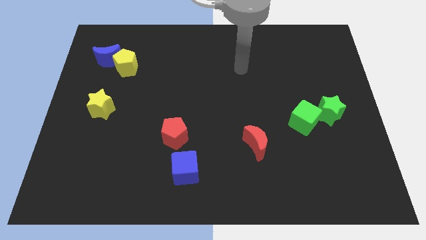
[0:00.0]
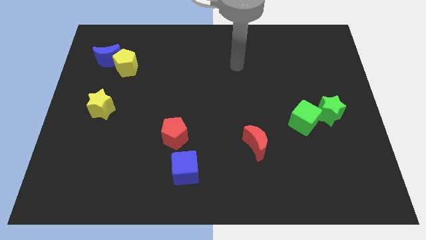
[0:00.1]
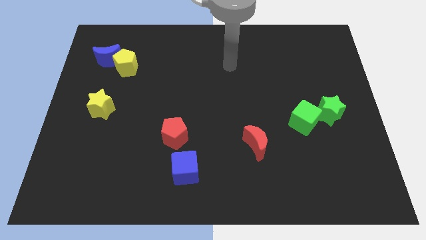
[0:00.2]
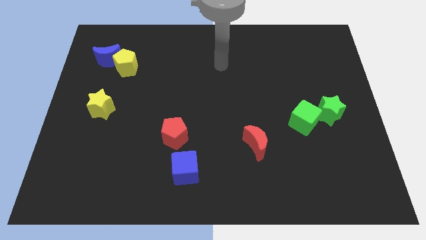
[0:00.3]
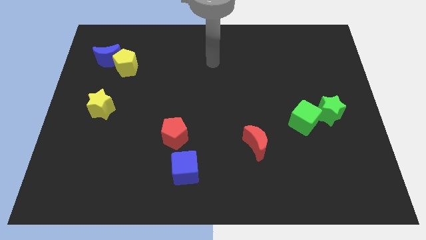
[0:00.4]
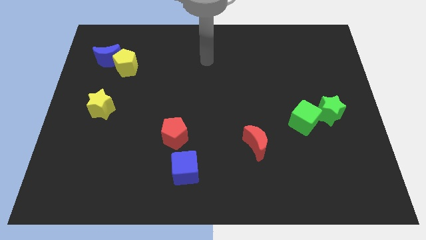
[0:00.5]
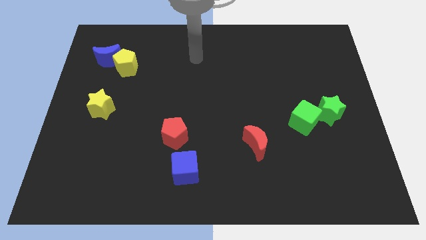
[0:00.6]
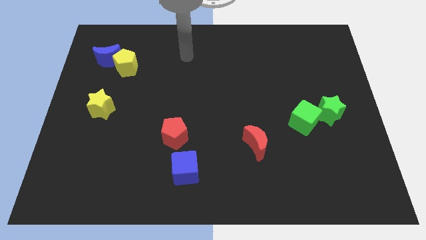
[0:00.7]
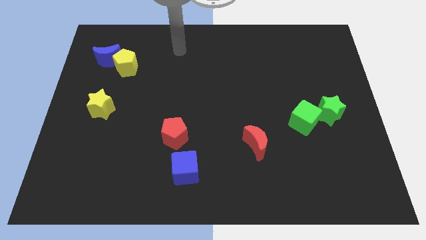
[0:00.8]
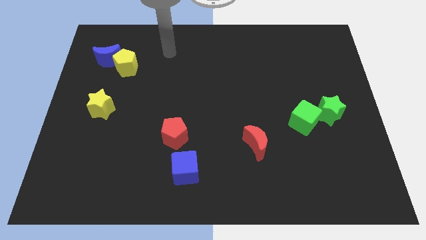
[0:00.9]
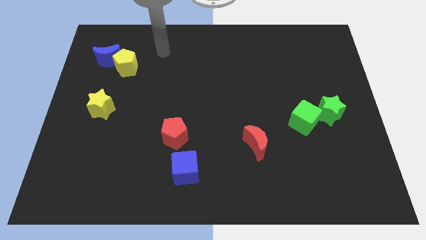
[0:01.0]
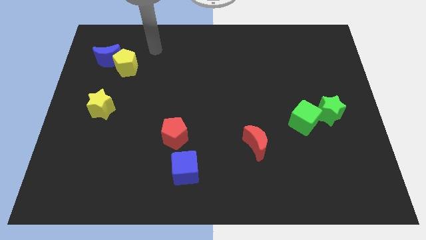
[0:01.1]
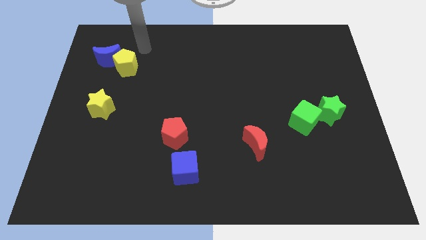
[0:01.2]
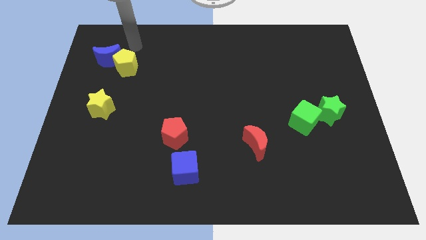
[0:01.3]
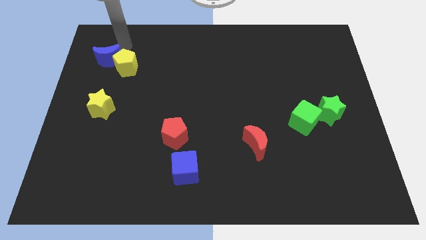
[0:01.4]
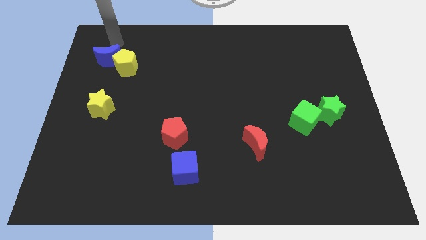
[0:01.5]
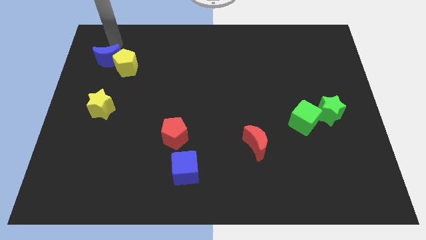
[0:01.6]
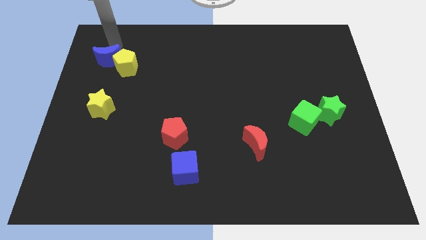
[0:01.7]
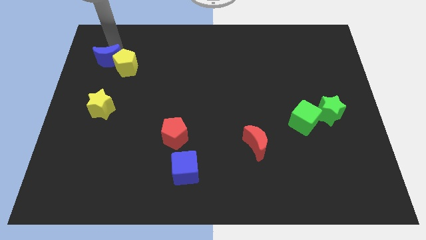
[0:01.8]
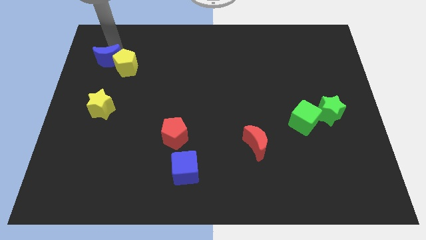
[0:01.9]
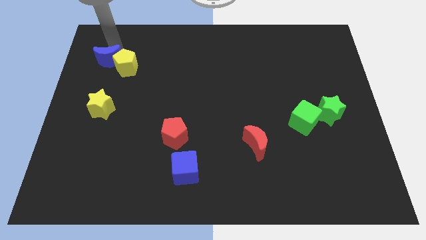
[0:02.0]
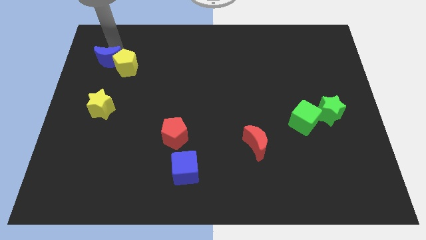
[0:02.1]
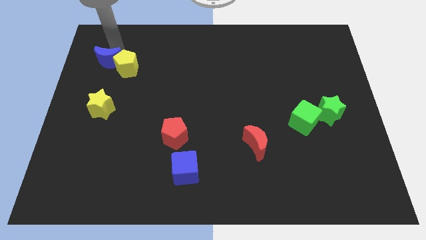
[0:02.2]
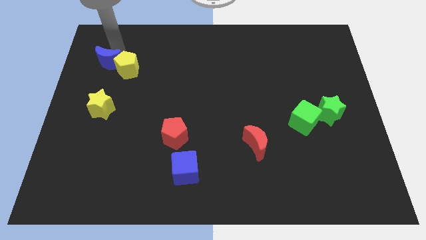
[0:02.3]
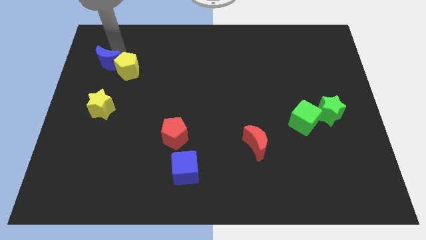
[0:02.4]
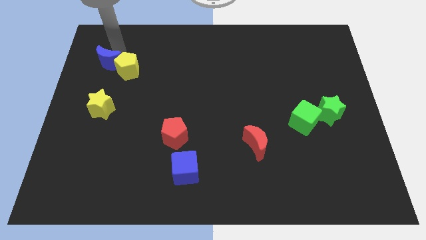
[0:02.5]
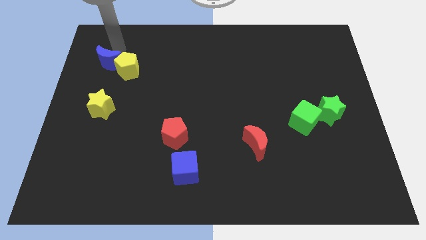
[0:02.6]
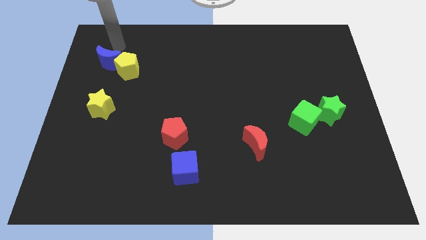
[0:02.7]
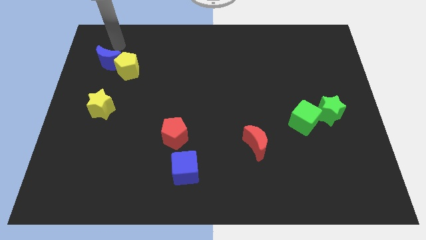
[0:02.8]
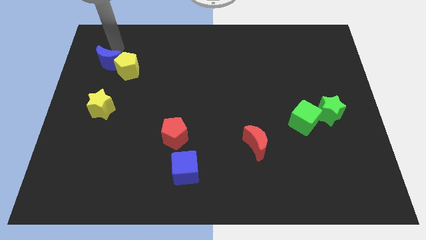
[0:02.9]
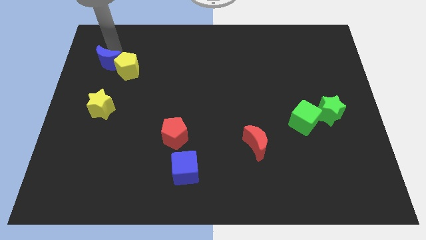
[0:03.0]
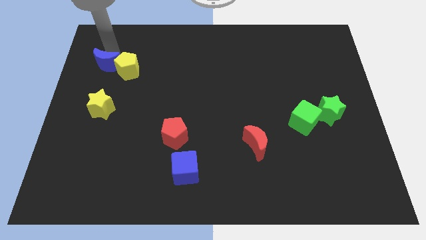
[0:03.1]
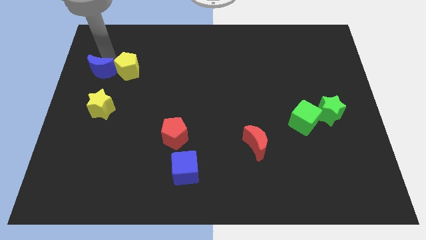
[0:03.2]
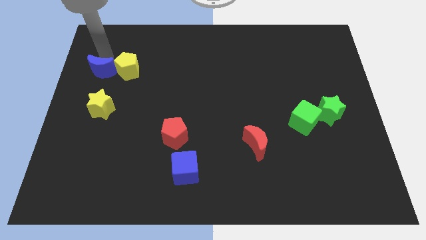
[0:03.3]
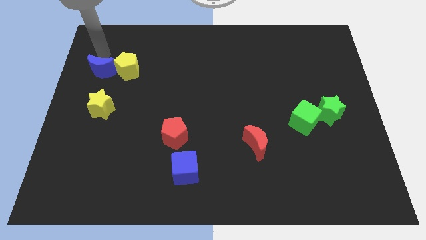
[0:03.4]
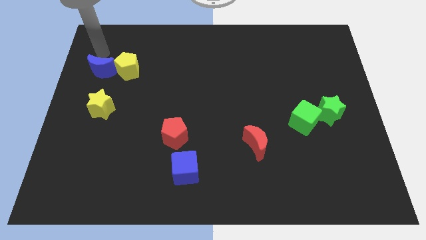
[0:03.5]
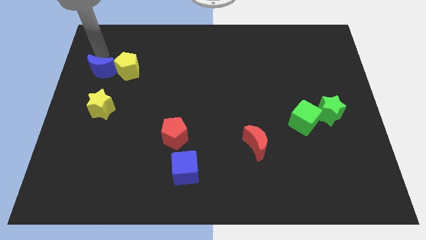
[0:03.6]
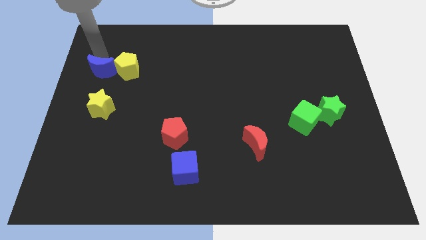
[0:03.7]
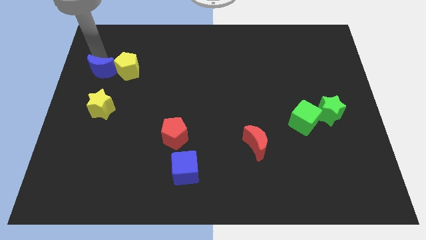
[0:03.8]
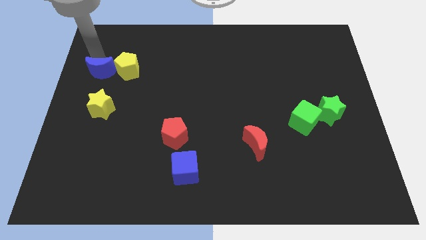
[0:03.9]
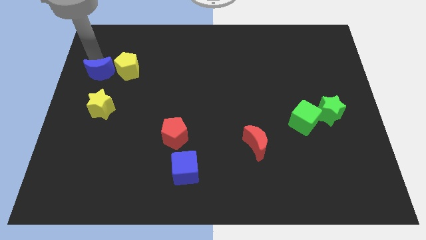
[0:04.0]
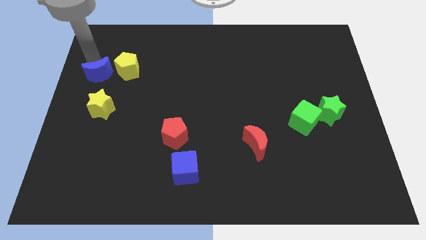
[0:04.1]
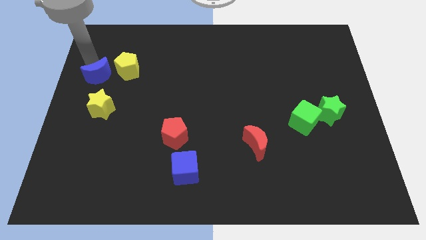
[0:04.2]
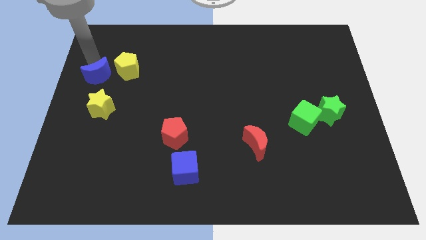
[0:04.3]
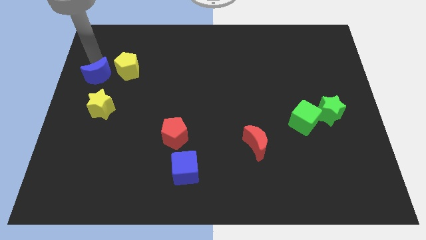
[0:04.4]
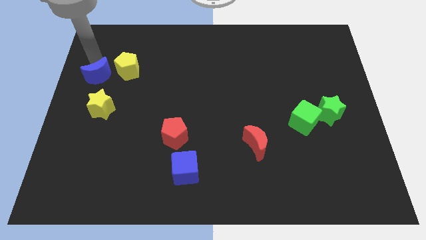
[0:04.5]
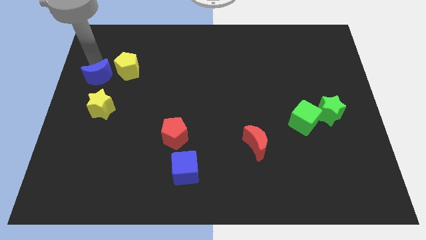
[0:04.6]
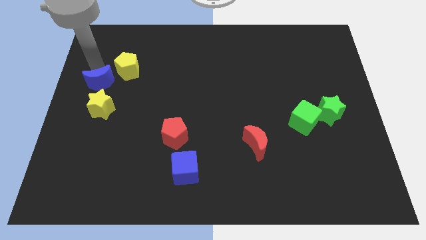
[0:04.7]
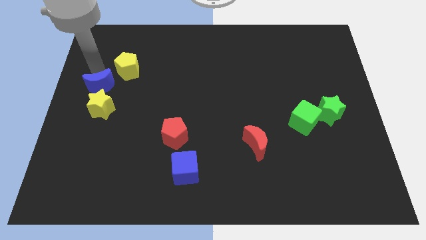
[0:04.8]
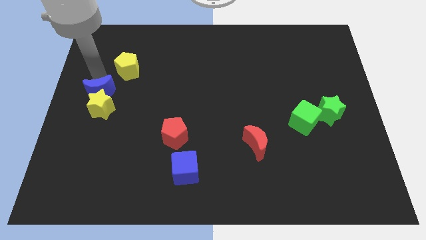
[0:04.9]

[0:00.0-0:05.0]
push the blue moon towards the yellow star

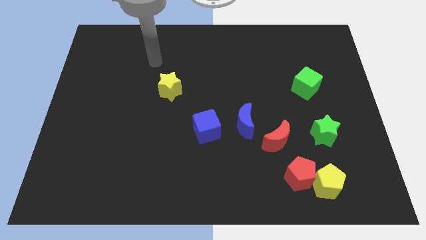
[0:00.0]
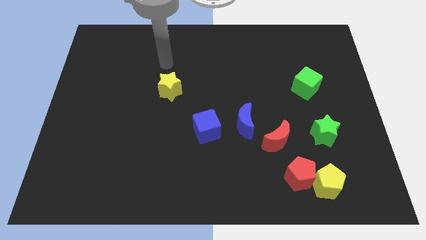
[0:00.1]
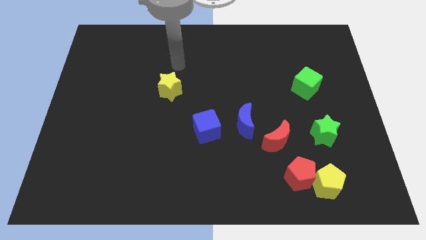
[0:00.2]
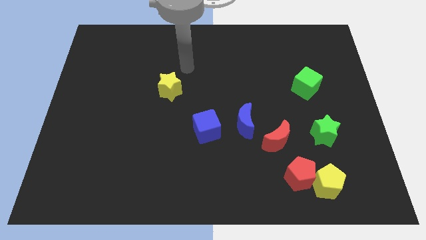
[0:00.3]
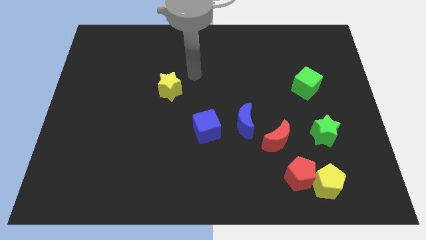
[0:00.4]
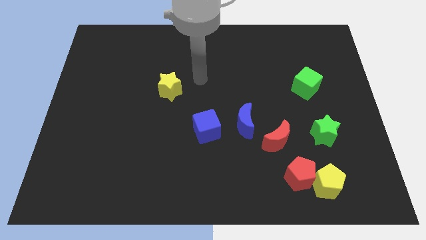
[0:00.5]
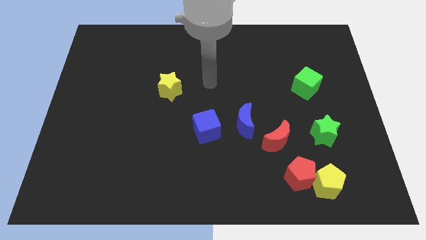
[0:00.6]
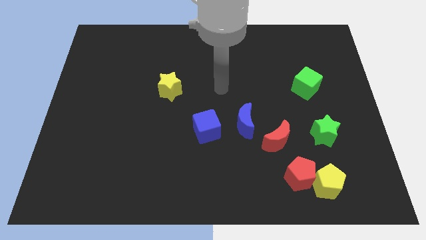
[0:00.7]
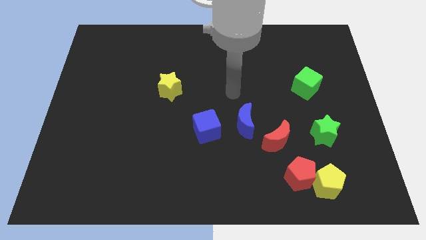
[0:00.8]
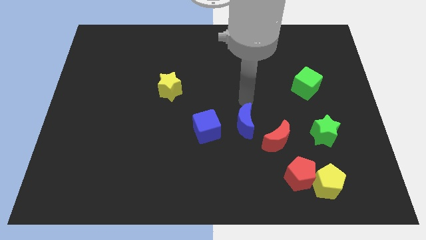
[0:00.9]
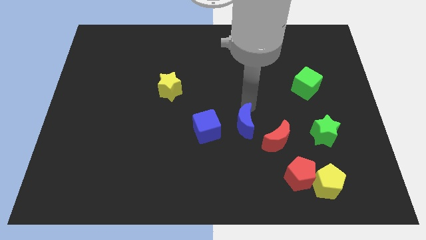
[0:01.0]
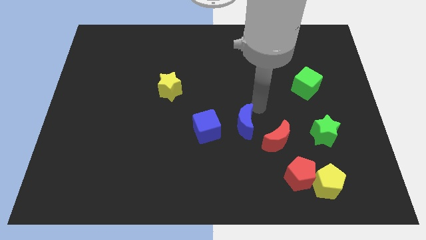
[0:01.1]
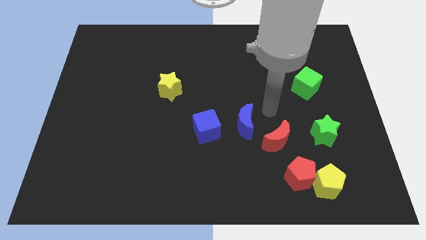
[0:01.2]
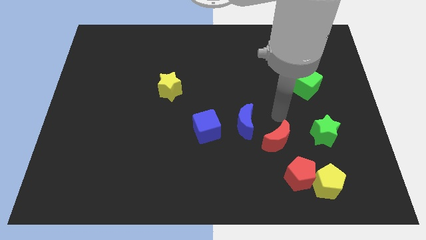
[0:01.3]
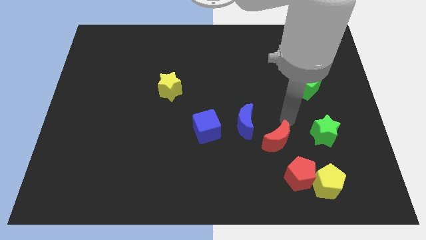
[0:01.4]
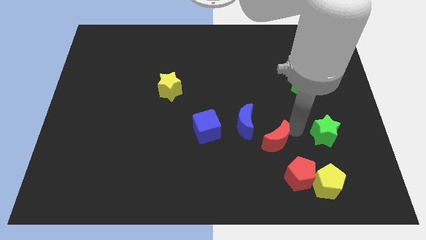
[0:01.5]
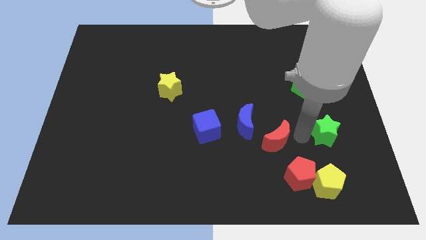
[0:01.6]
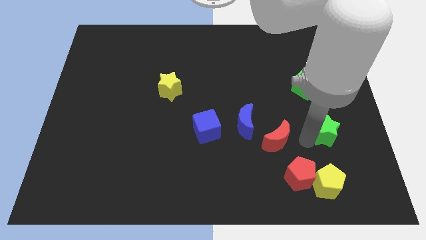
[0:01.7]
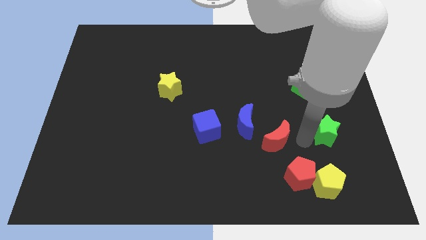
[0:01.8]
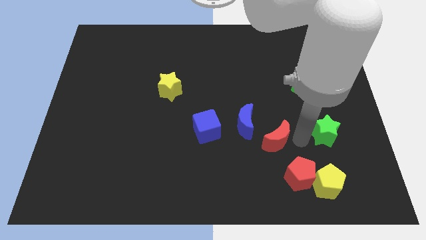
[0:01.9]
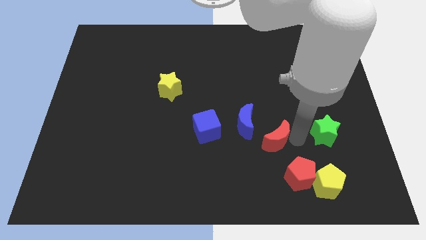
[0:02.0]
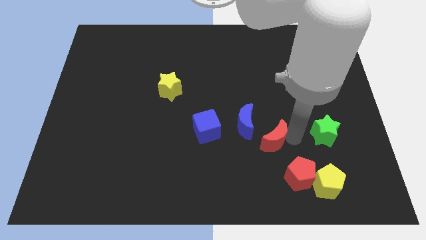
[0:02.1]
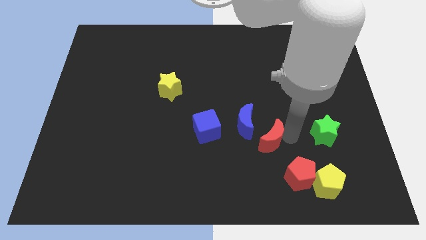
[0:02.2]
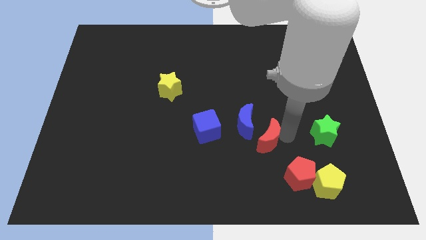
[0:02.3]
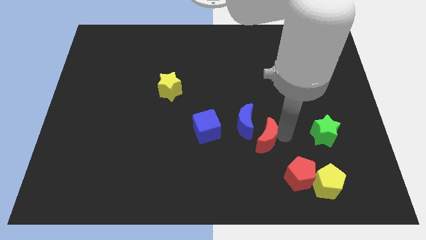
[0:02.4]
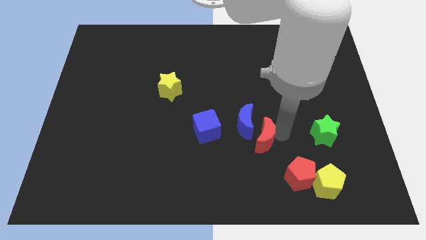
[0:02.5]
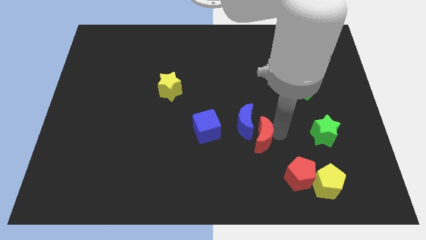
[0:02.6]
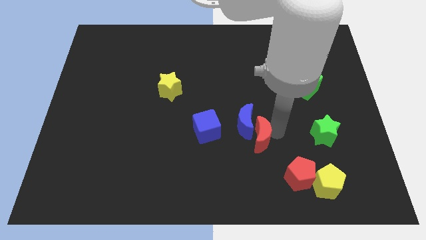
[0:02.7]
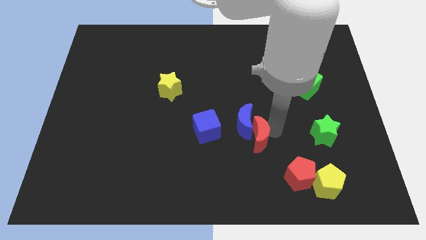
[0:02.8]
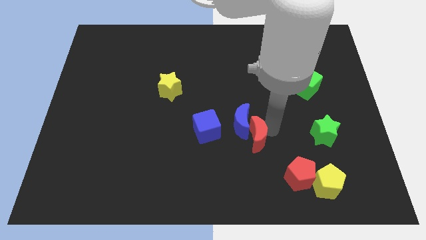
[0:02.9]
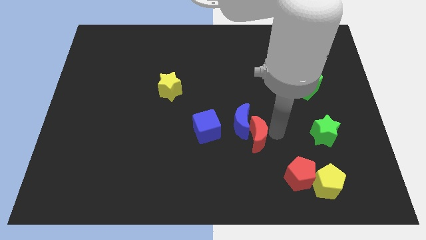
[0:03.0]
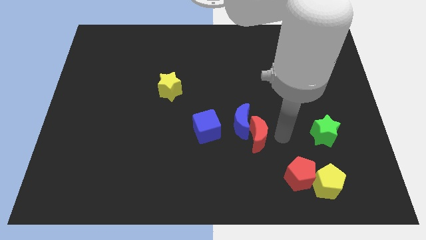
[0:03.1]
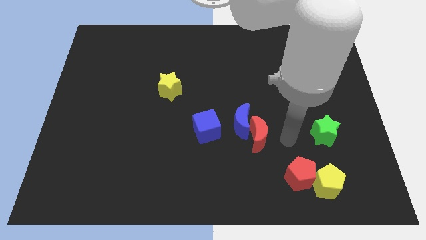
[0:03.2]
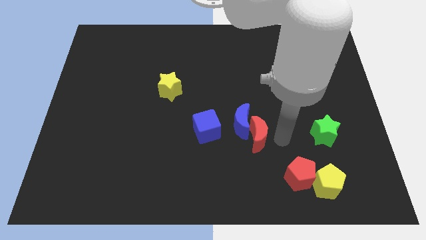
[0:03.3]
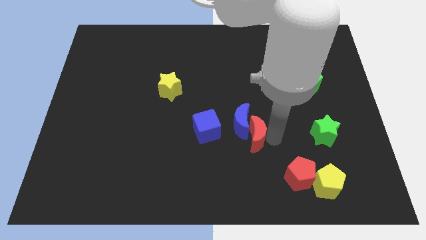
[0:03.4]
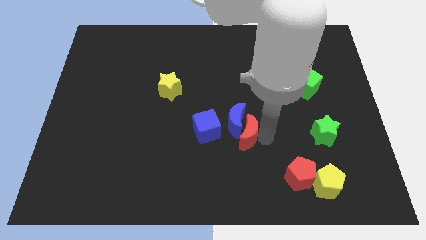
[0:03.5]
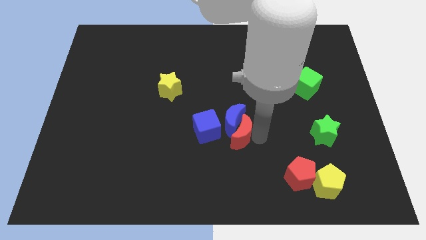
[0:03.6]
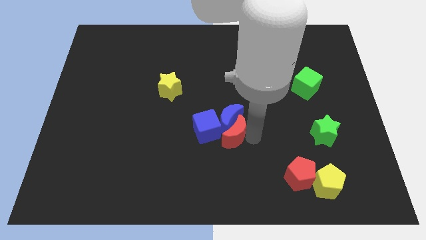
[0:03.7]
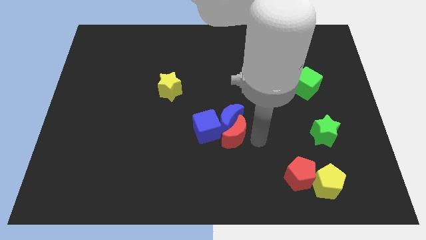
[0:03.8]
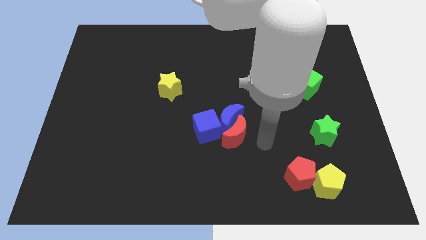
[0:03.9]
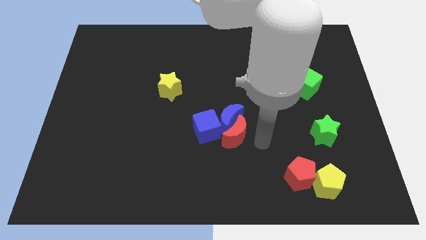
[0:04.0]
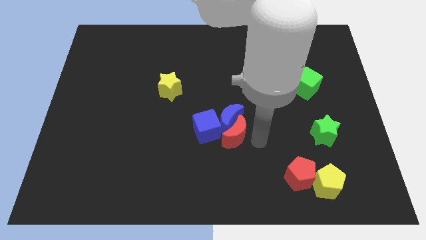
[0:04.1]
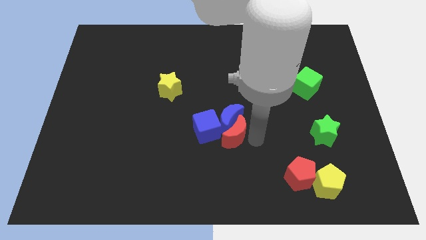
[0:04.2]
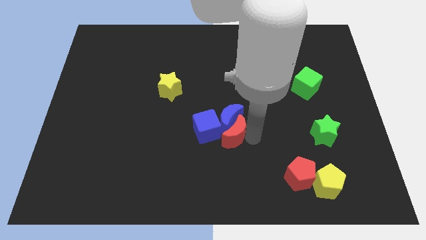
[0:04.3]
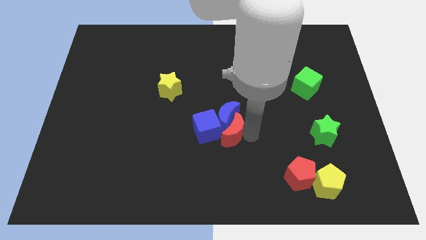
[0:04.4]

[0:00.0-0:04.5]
push the red moon to the blue cube
